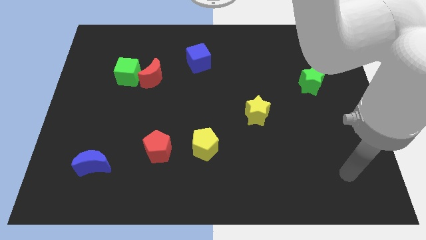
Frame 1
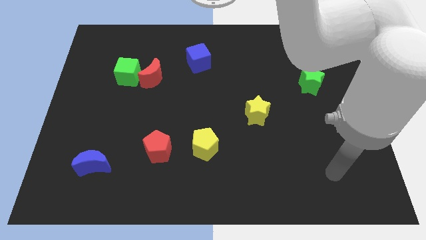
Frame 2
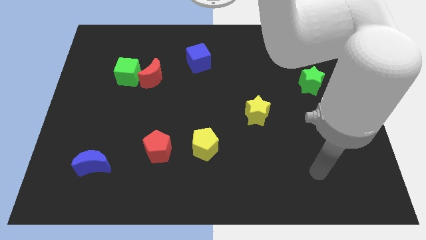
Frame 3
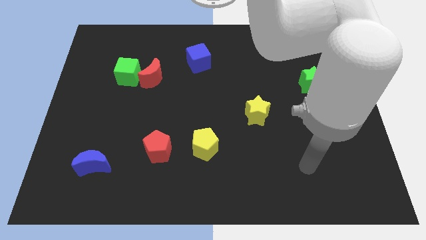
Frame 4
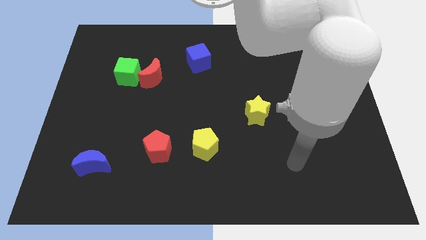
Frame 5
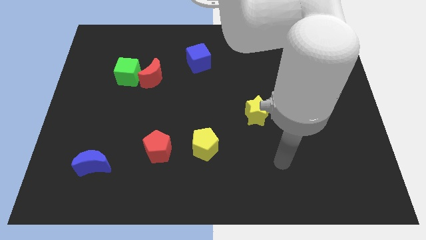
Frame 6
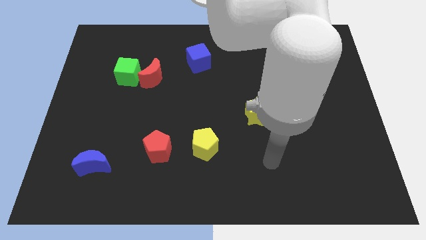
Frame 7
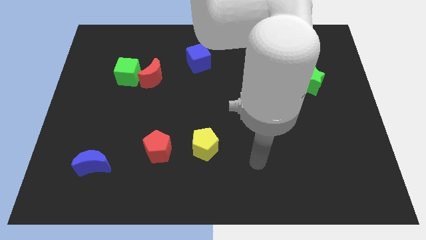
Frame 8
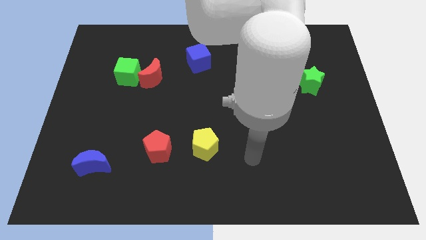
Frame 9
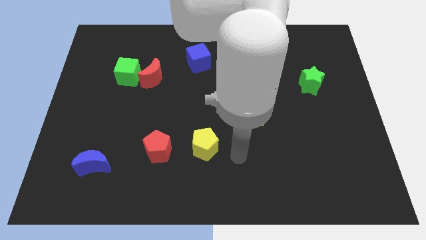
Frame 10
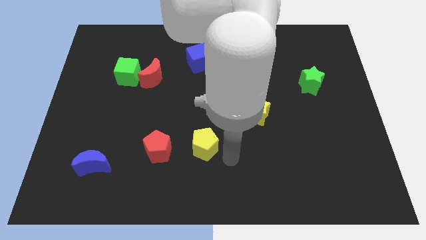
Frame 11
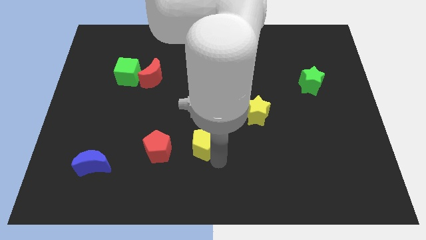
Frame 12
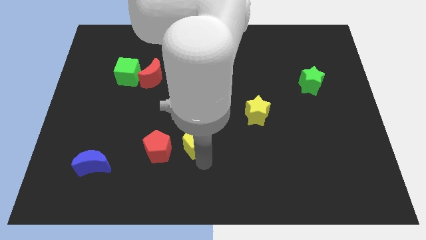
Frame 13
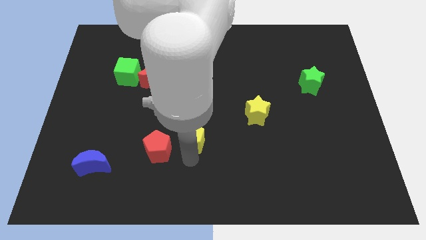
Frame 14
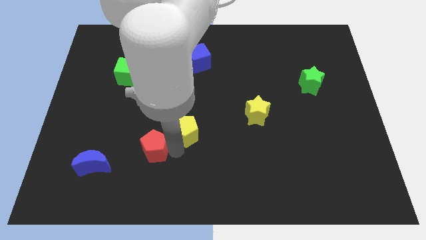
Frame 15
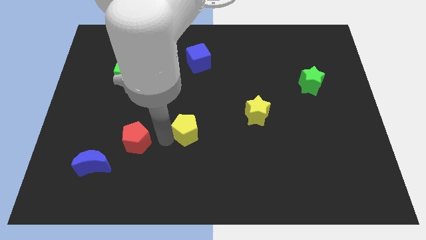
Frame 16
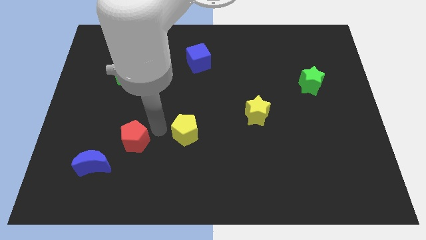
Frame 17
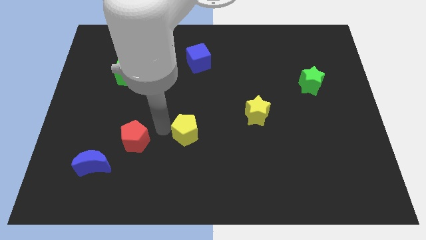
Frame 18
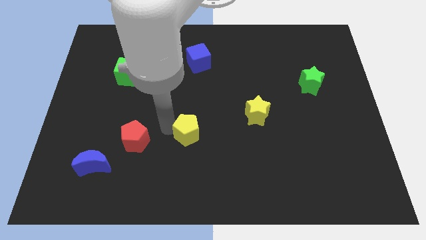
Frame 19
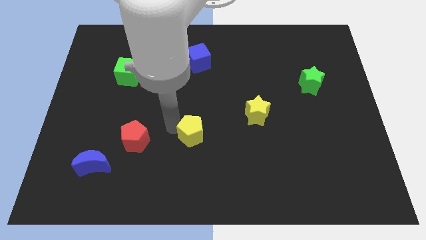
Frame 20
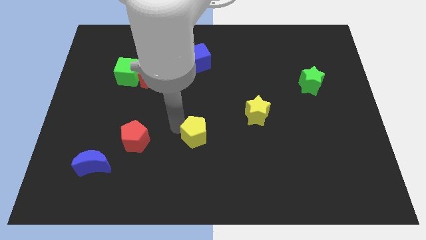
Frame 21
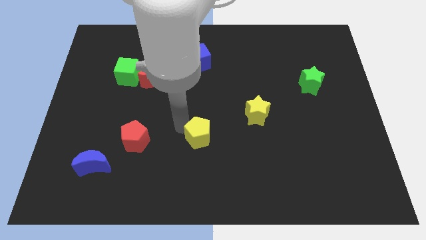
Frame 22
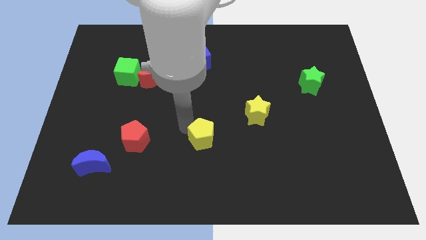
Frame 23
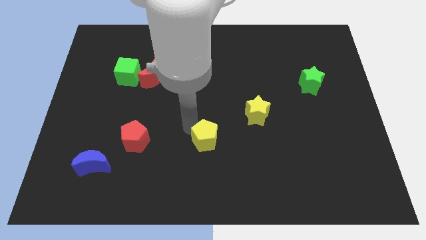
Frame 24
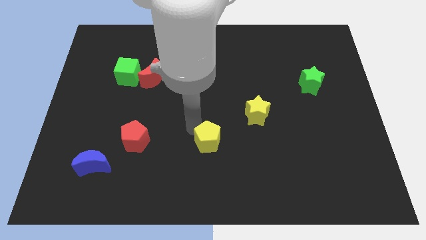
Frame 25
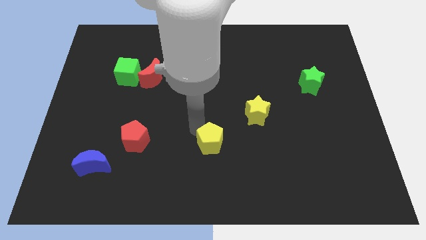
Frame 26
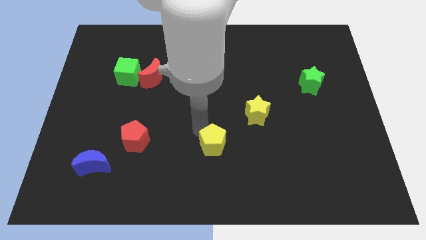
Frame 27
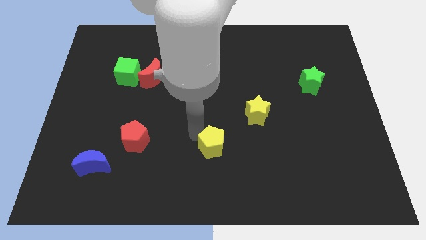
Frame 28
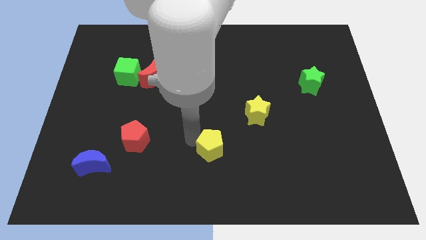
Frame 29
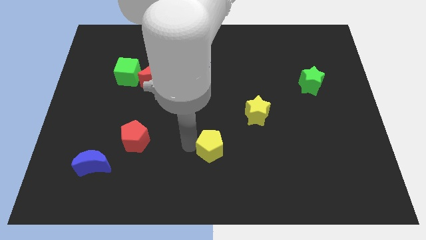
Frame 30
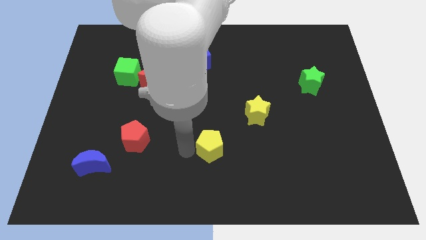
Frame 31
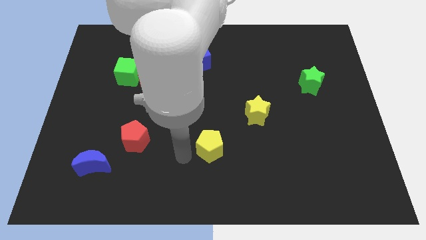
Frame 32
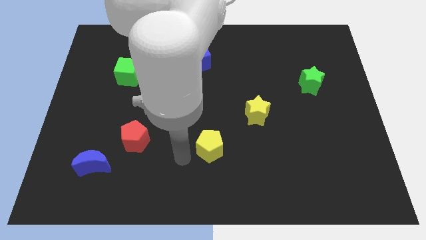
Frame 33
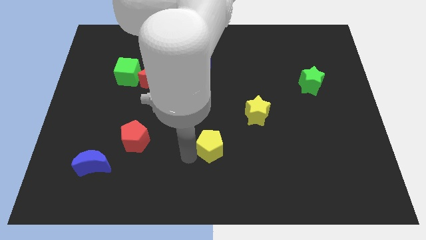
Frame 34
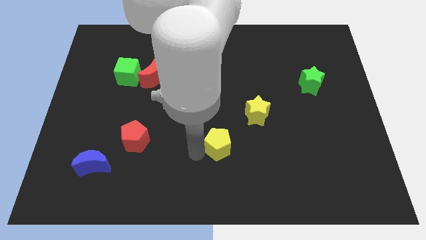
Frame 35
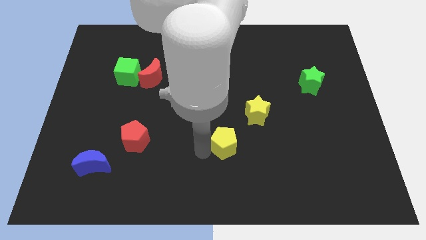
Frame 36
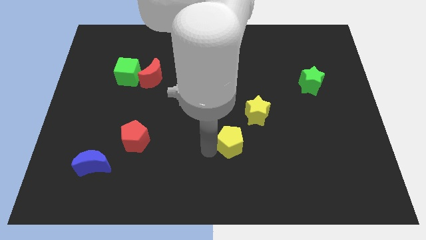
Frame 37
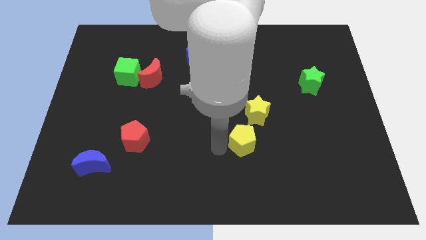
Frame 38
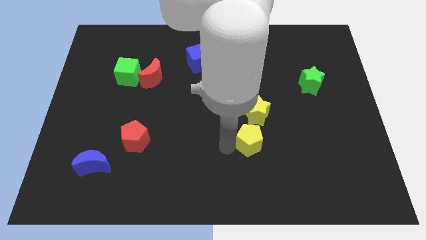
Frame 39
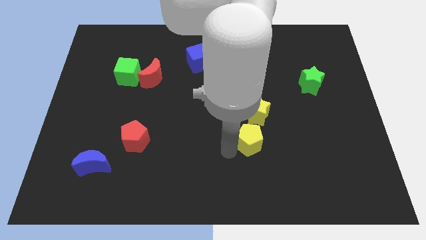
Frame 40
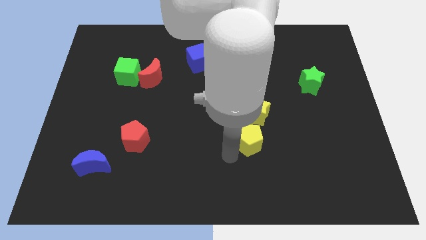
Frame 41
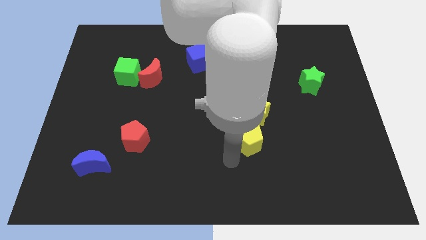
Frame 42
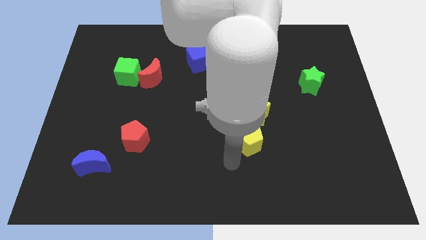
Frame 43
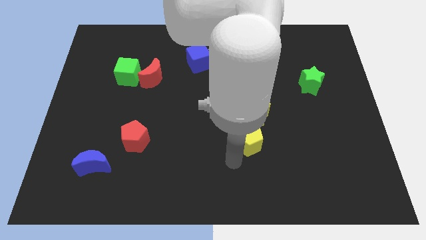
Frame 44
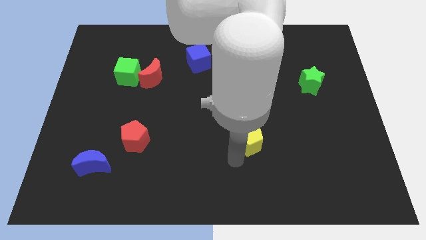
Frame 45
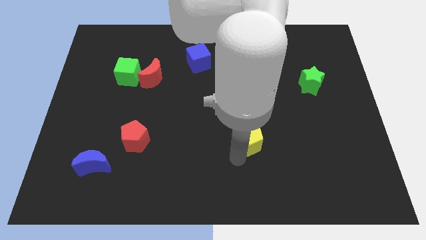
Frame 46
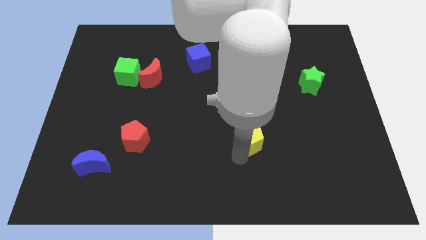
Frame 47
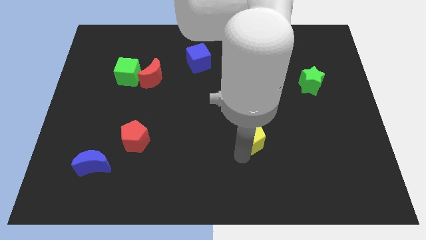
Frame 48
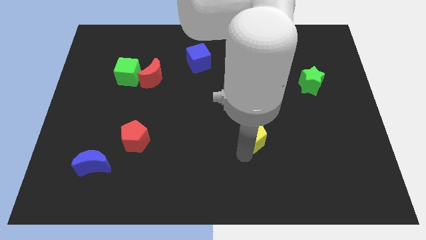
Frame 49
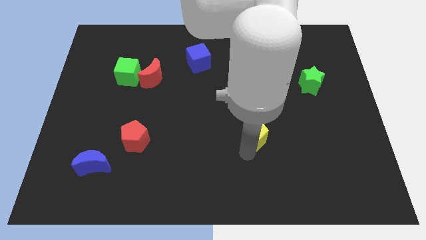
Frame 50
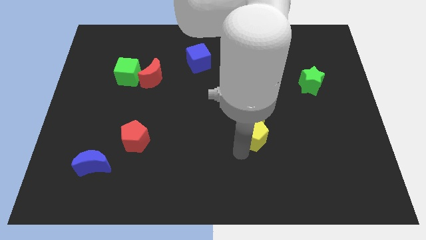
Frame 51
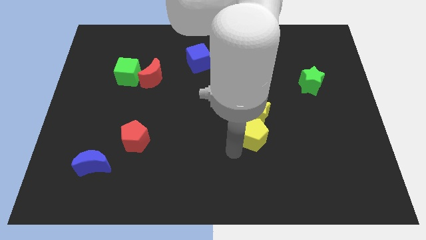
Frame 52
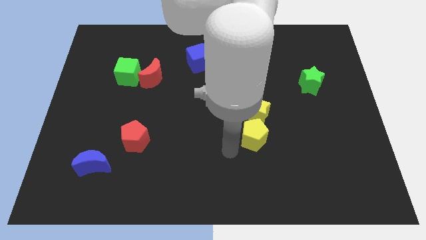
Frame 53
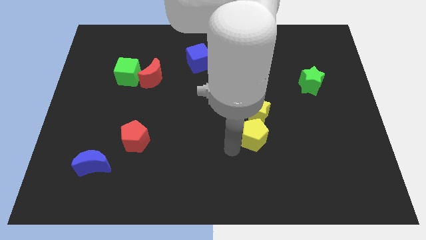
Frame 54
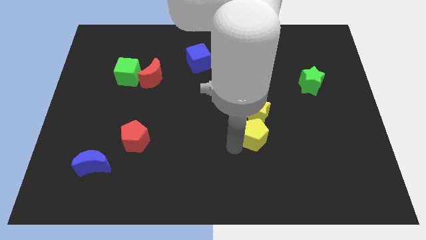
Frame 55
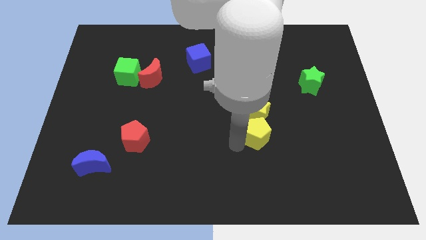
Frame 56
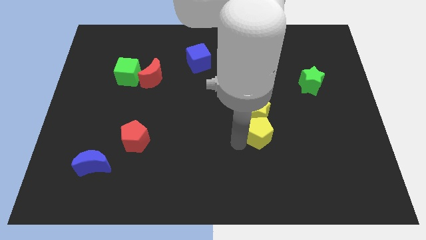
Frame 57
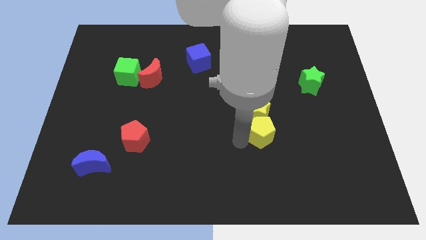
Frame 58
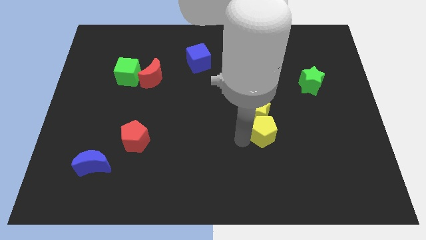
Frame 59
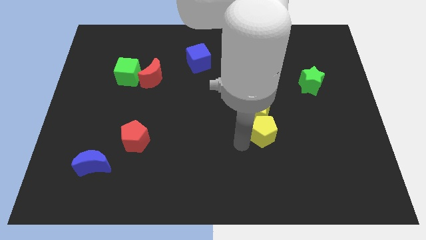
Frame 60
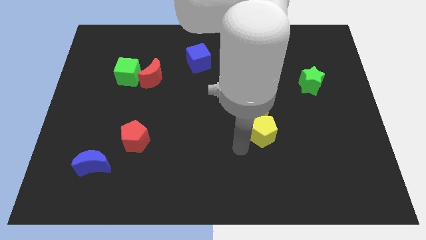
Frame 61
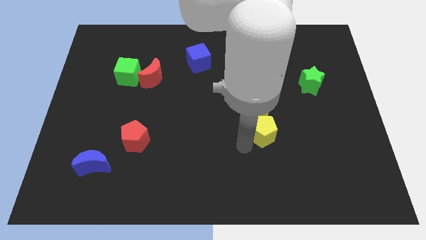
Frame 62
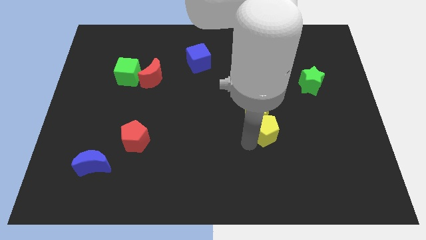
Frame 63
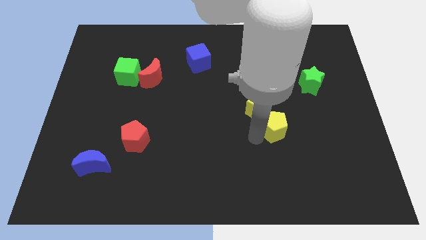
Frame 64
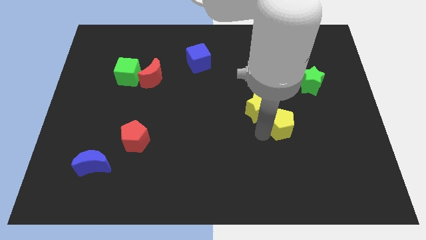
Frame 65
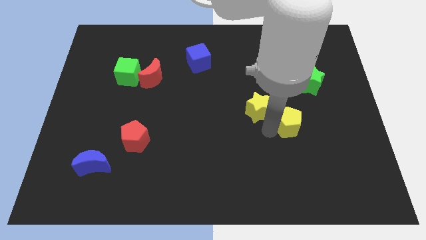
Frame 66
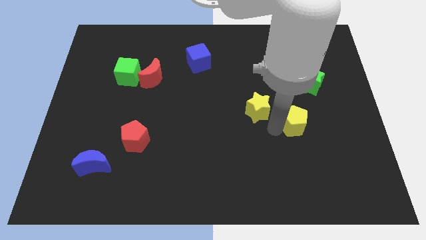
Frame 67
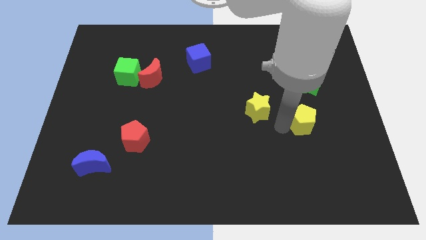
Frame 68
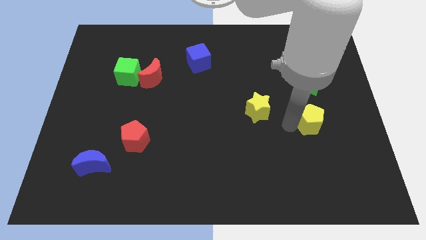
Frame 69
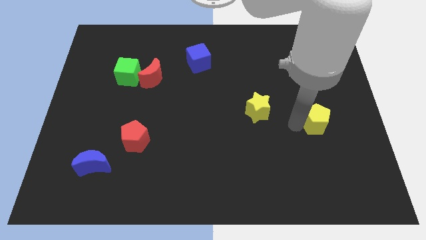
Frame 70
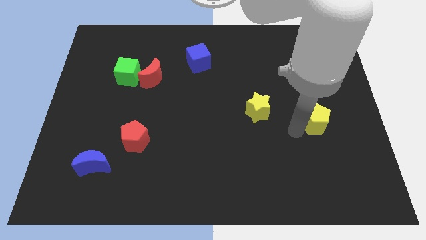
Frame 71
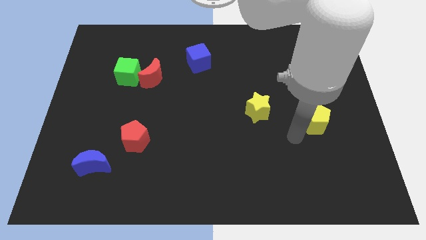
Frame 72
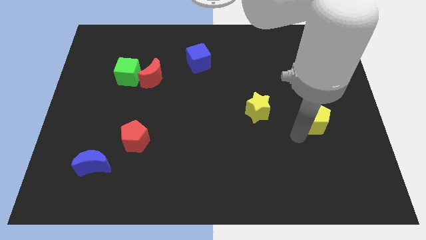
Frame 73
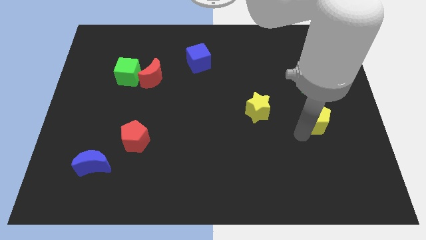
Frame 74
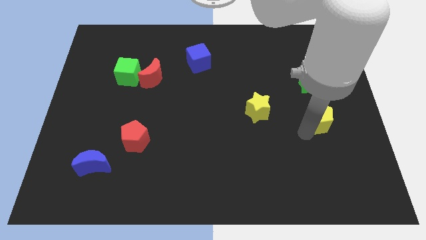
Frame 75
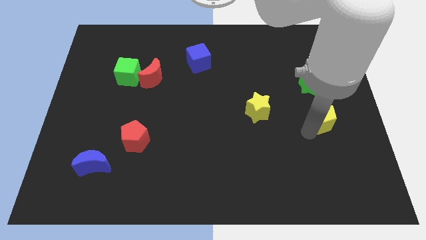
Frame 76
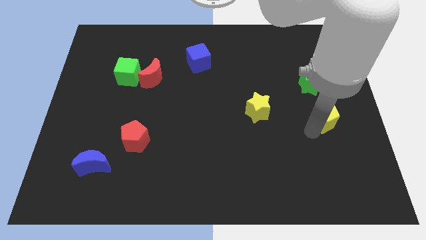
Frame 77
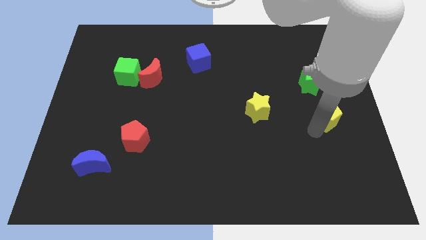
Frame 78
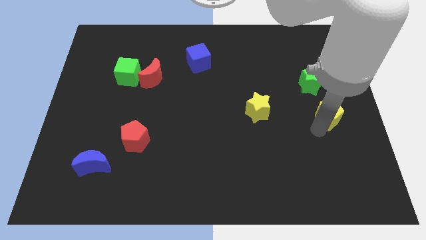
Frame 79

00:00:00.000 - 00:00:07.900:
slide the yellow pentagon to the right side of the board
